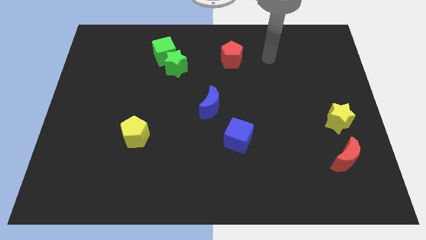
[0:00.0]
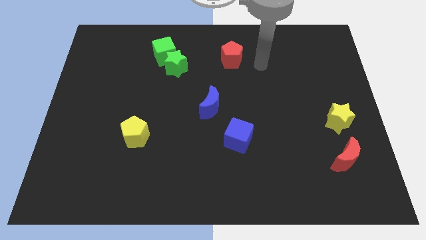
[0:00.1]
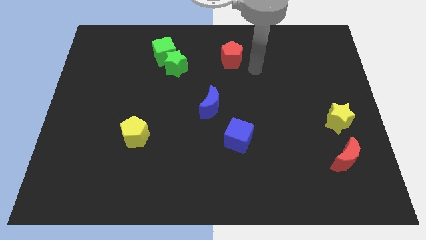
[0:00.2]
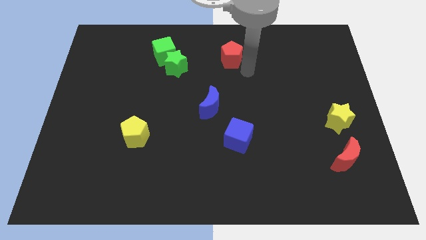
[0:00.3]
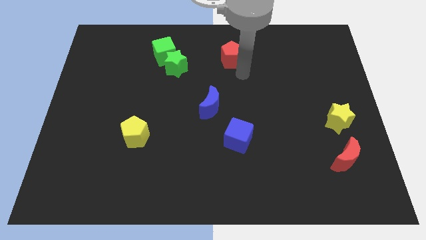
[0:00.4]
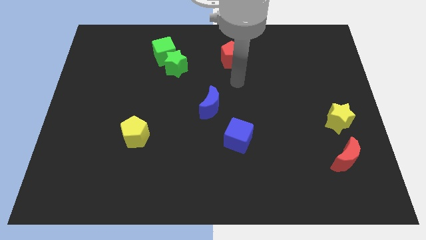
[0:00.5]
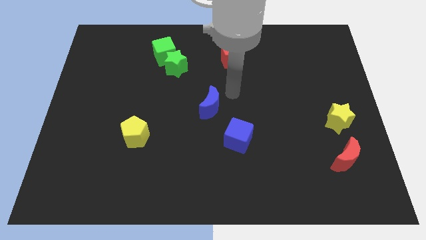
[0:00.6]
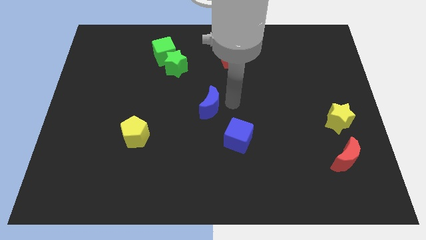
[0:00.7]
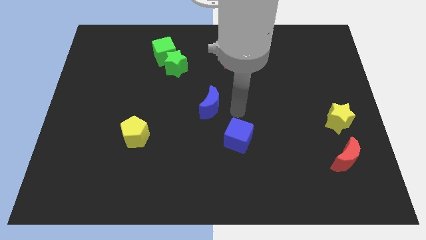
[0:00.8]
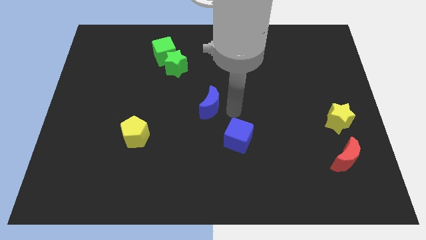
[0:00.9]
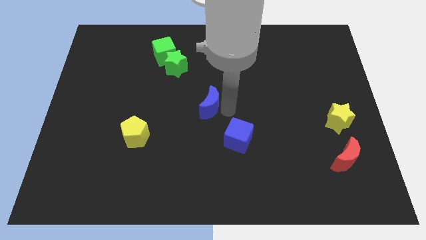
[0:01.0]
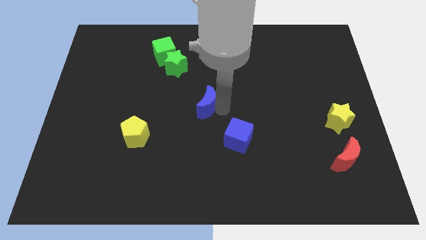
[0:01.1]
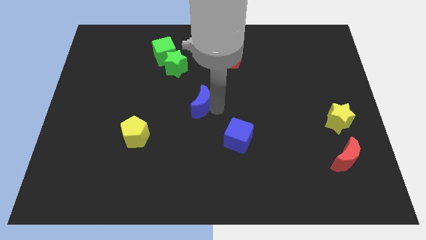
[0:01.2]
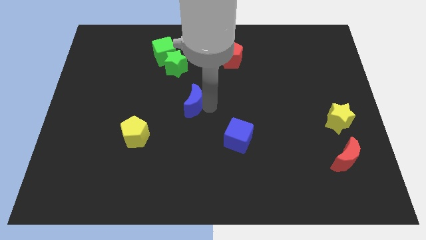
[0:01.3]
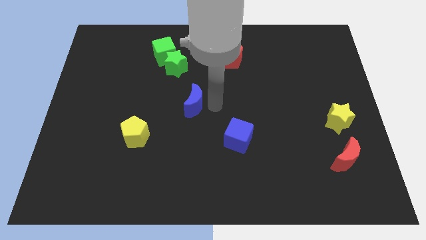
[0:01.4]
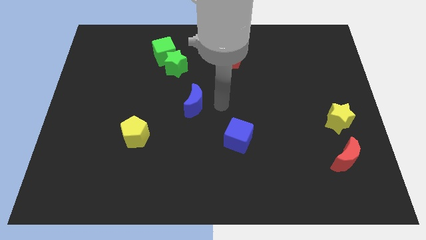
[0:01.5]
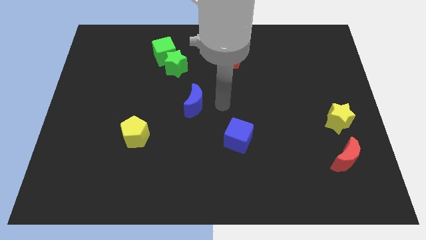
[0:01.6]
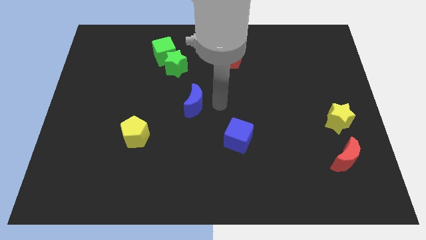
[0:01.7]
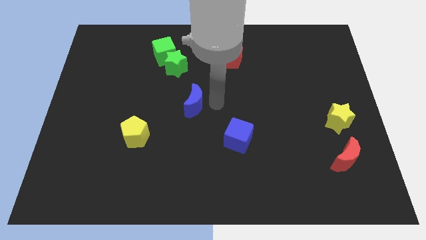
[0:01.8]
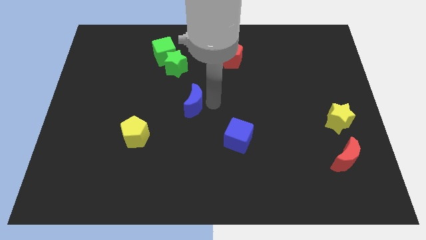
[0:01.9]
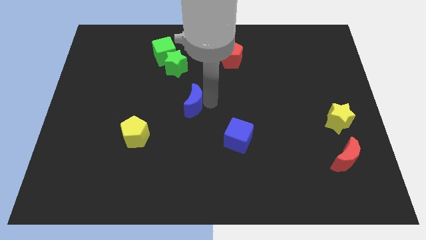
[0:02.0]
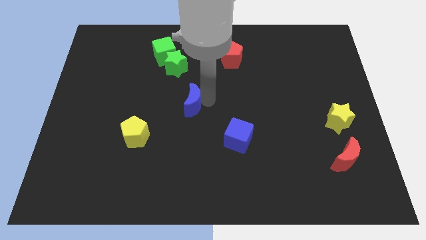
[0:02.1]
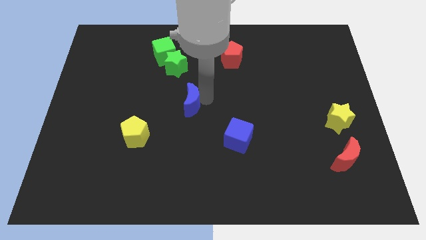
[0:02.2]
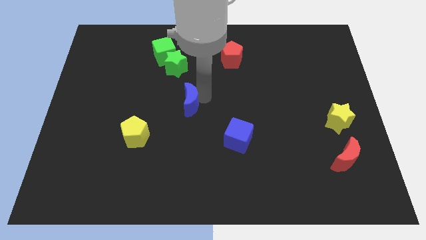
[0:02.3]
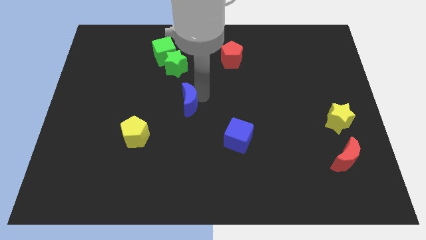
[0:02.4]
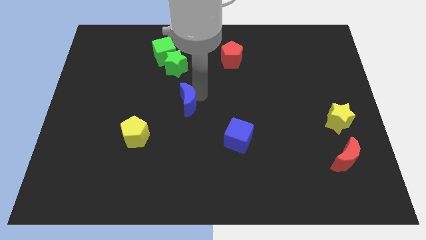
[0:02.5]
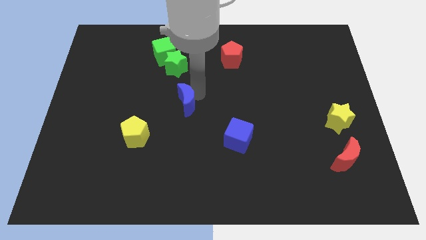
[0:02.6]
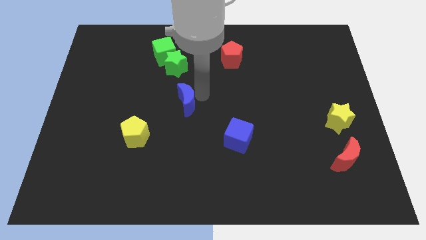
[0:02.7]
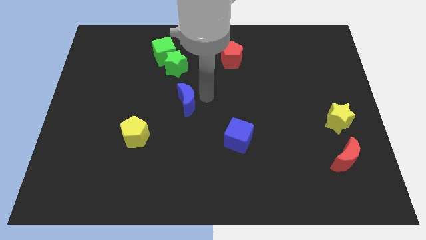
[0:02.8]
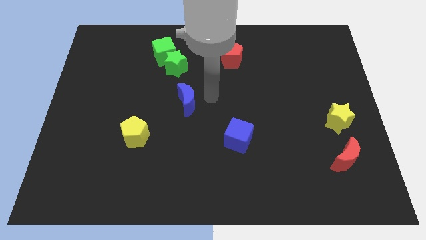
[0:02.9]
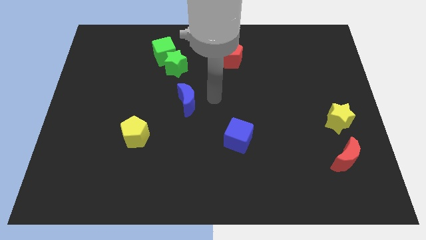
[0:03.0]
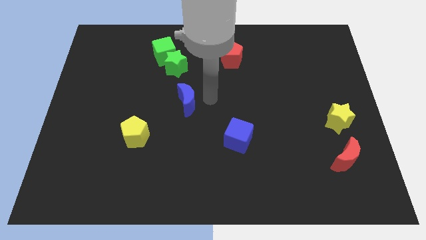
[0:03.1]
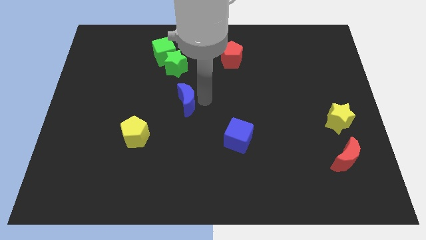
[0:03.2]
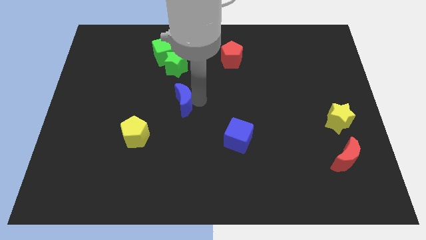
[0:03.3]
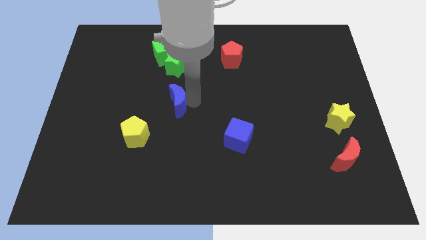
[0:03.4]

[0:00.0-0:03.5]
slightly push the blue moon left

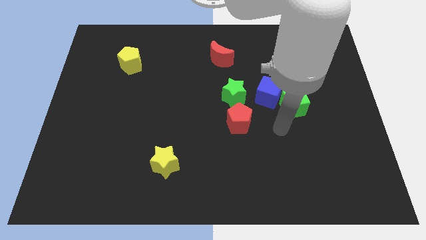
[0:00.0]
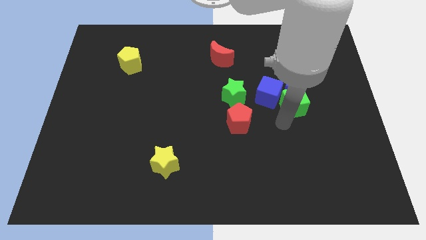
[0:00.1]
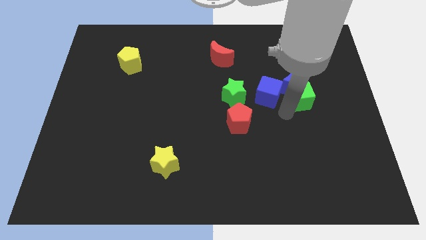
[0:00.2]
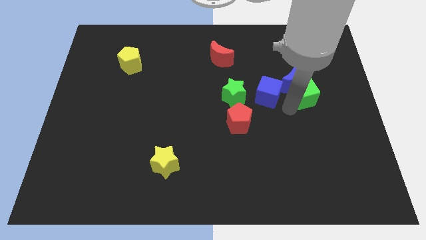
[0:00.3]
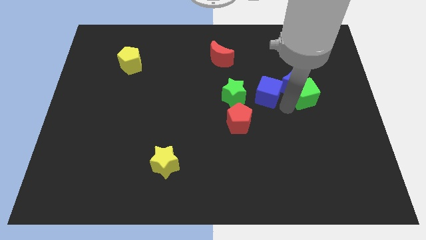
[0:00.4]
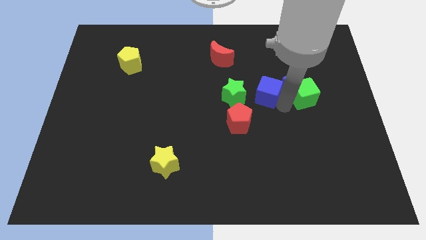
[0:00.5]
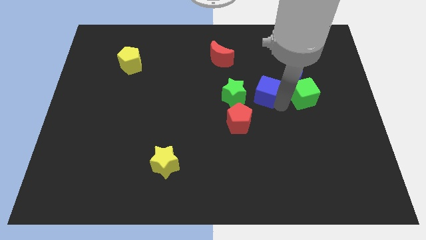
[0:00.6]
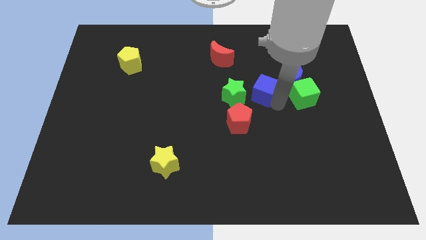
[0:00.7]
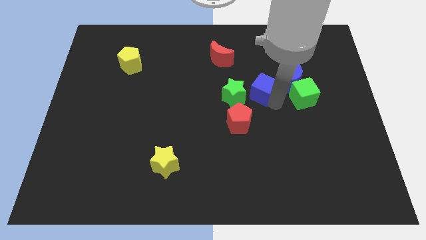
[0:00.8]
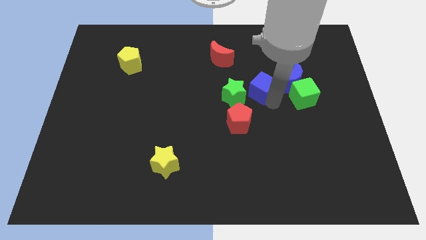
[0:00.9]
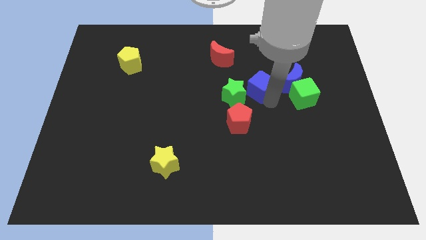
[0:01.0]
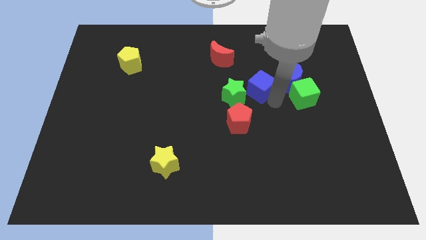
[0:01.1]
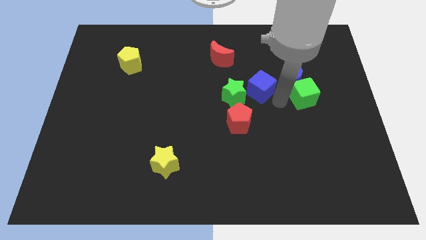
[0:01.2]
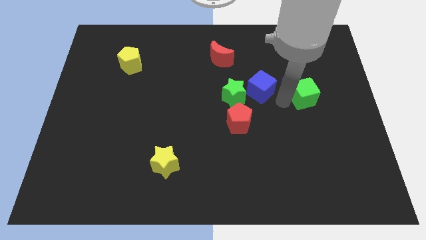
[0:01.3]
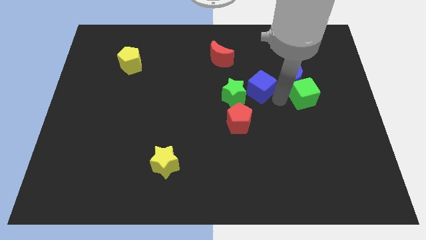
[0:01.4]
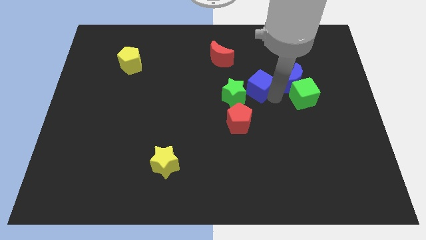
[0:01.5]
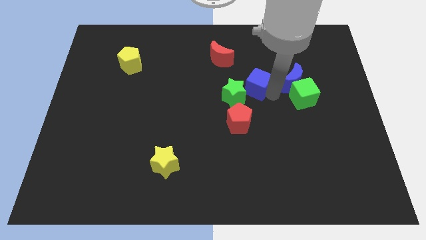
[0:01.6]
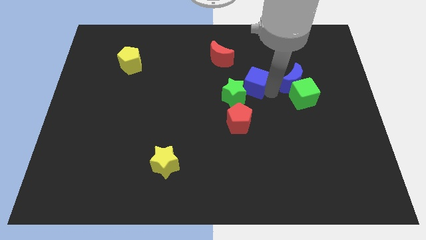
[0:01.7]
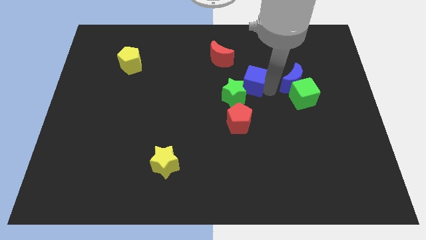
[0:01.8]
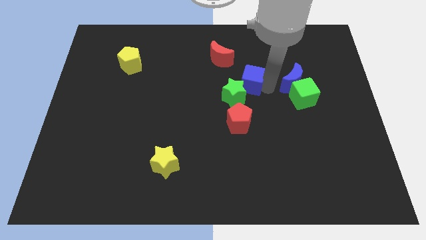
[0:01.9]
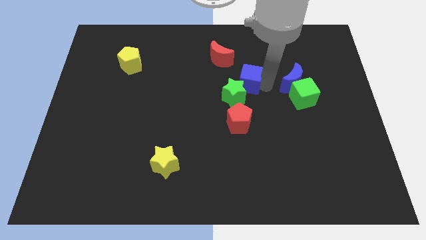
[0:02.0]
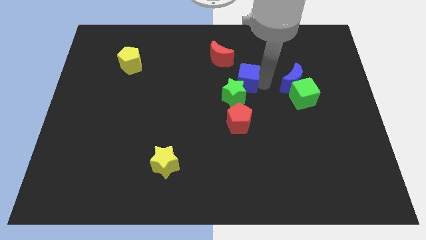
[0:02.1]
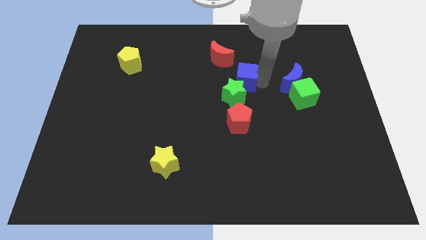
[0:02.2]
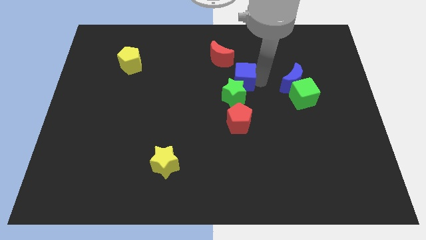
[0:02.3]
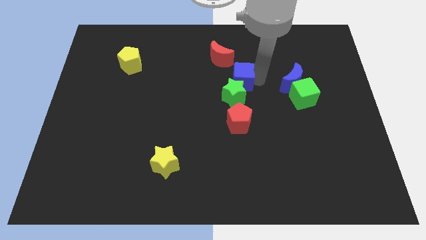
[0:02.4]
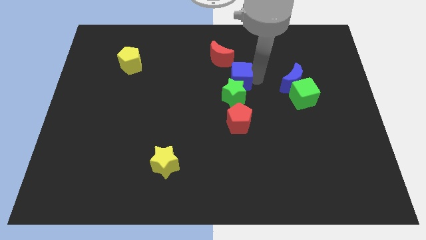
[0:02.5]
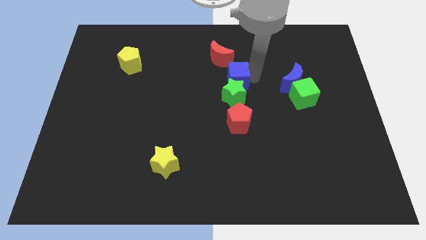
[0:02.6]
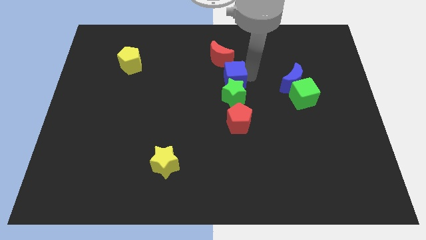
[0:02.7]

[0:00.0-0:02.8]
slightly move the blue cube left

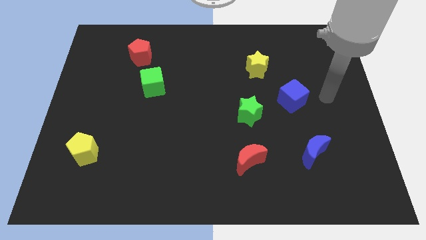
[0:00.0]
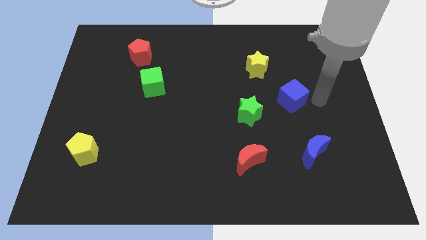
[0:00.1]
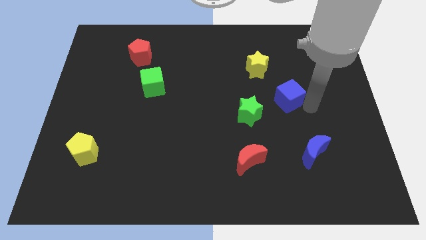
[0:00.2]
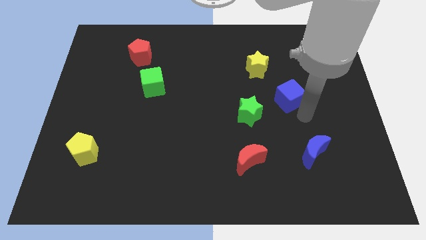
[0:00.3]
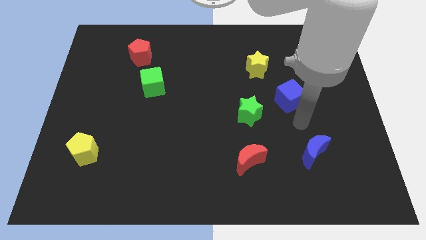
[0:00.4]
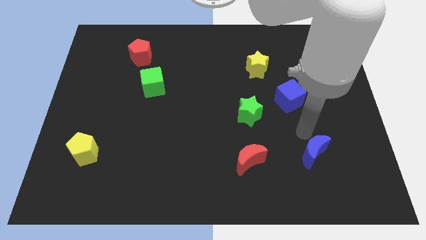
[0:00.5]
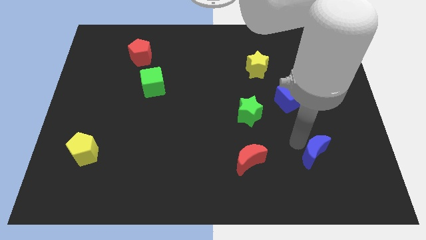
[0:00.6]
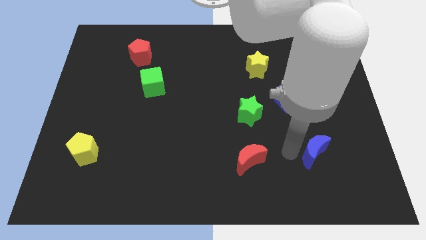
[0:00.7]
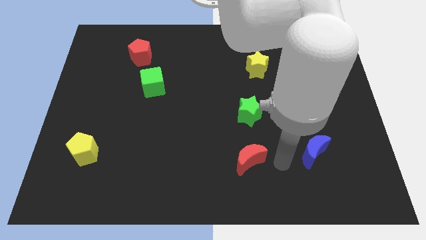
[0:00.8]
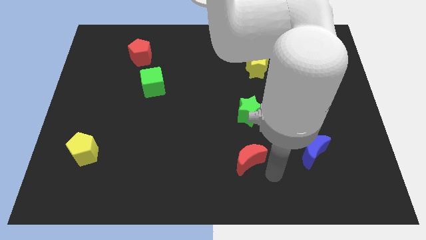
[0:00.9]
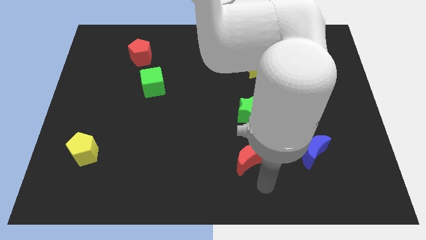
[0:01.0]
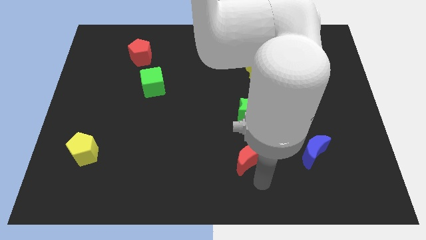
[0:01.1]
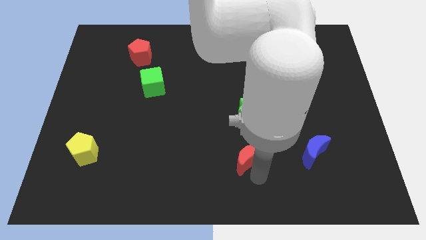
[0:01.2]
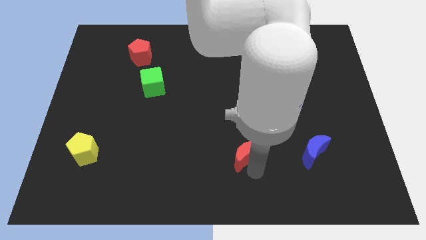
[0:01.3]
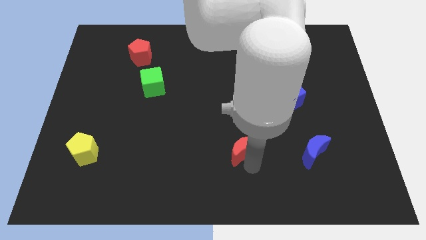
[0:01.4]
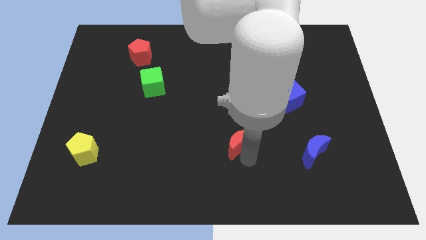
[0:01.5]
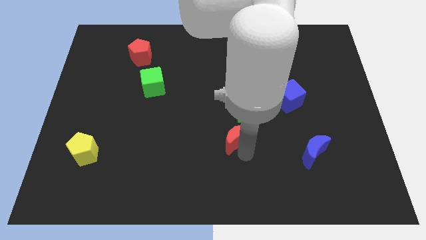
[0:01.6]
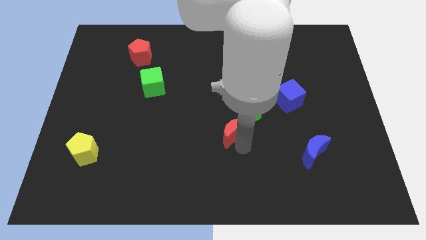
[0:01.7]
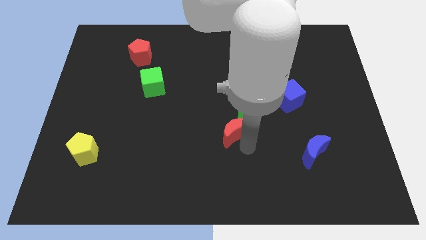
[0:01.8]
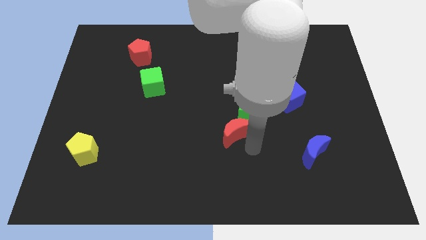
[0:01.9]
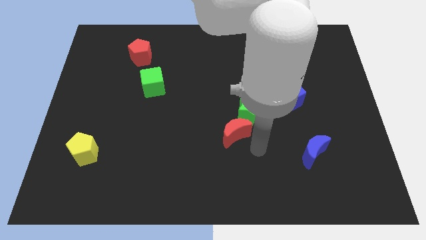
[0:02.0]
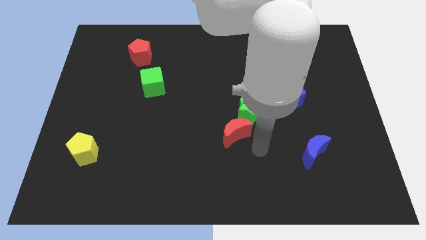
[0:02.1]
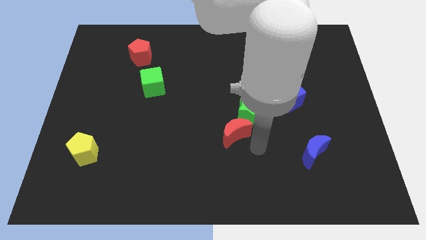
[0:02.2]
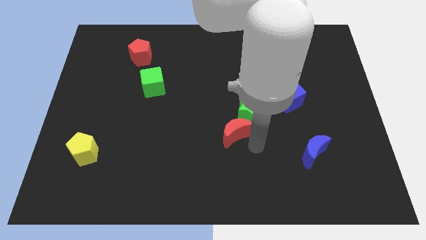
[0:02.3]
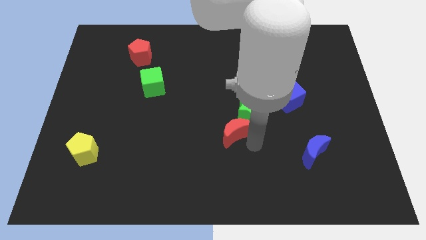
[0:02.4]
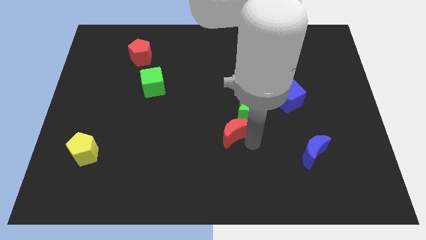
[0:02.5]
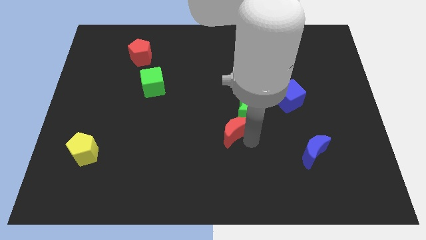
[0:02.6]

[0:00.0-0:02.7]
slide the red moon up somewhat
